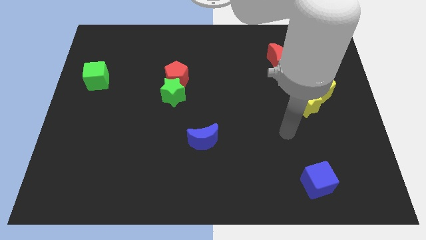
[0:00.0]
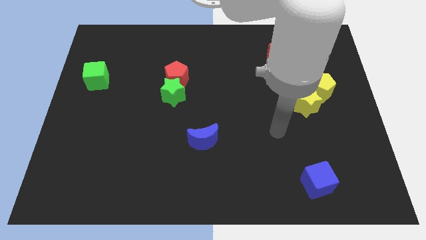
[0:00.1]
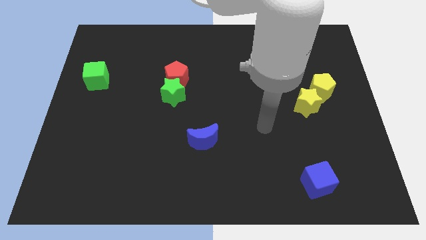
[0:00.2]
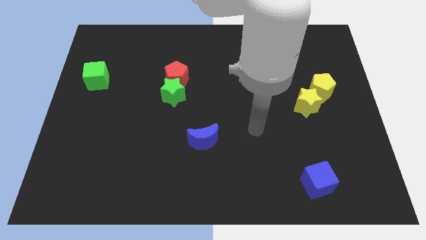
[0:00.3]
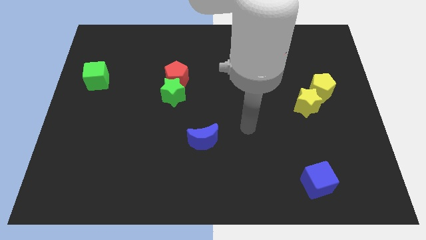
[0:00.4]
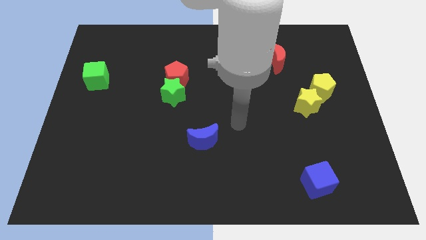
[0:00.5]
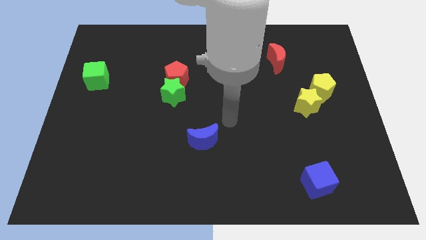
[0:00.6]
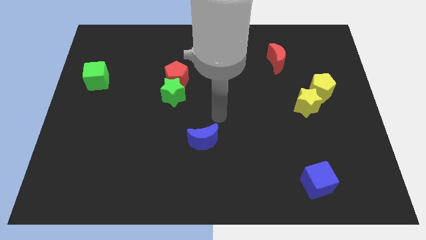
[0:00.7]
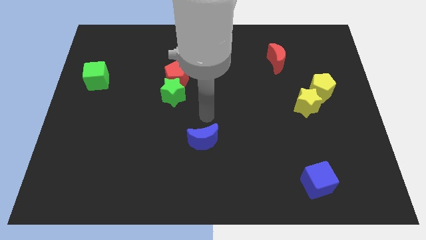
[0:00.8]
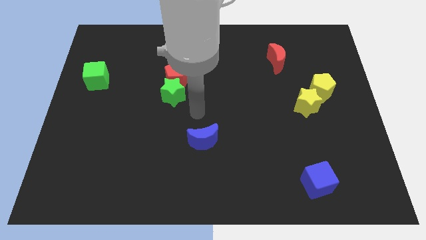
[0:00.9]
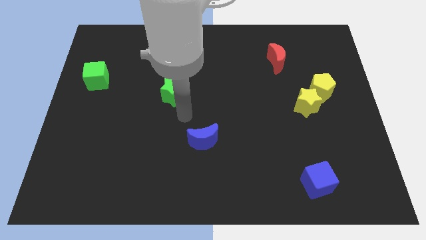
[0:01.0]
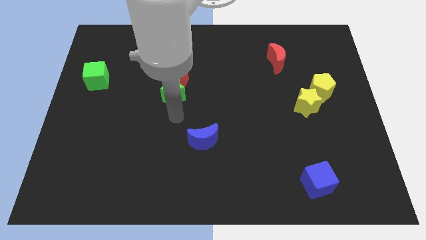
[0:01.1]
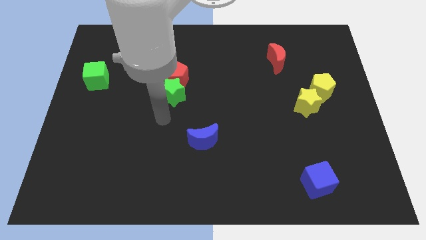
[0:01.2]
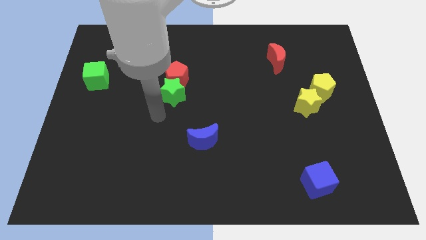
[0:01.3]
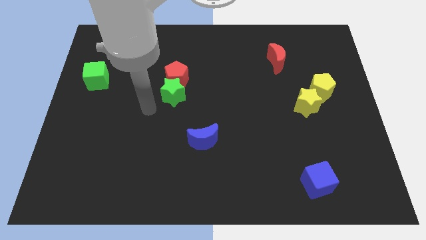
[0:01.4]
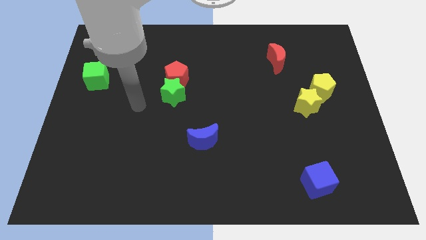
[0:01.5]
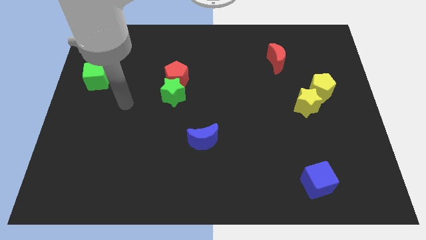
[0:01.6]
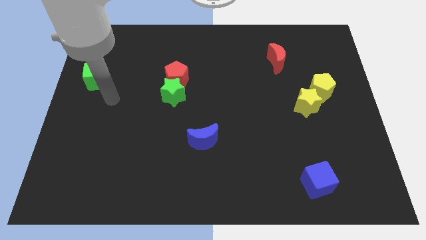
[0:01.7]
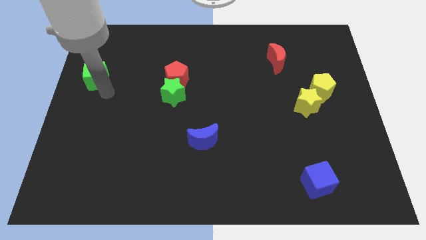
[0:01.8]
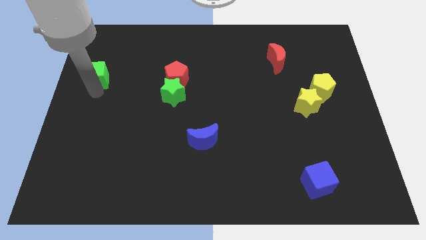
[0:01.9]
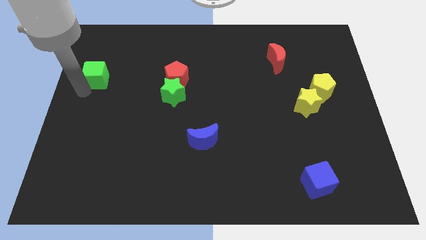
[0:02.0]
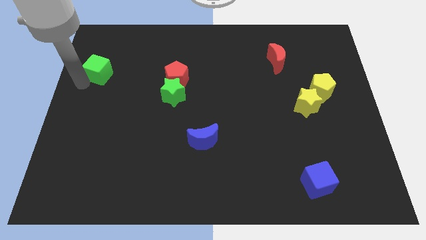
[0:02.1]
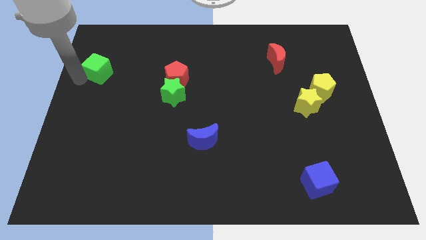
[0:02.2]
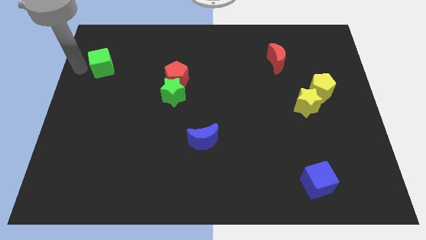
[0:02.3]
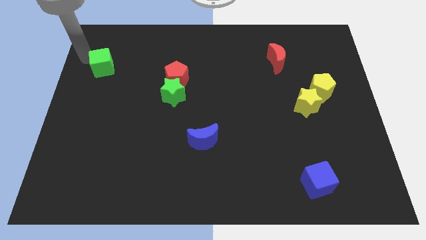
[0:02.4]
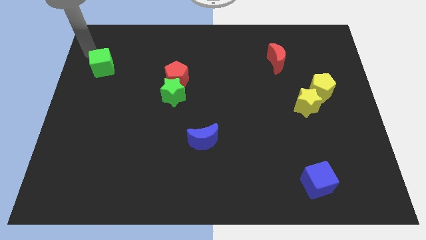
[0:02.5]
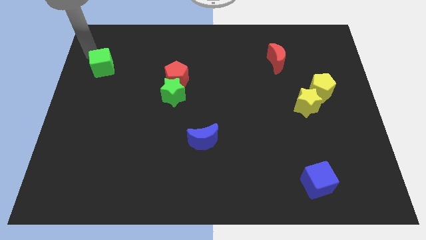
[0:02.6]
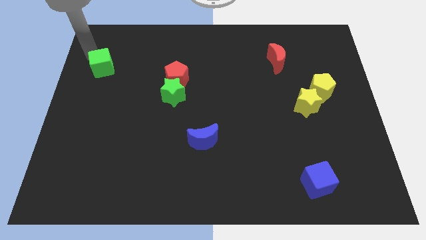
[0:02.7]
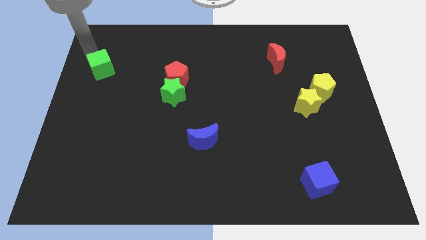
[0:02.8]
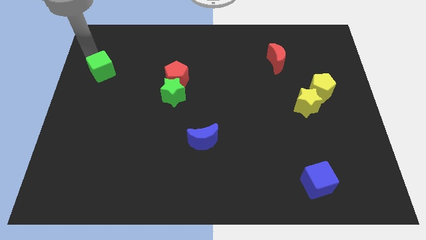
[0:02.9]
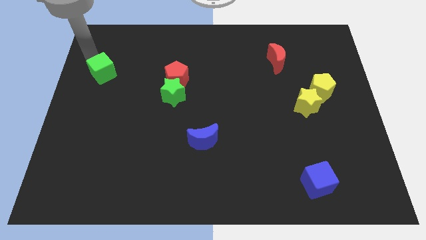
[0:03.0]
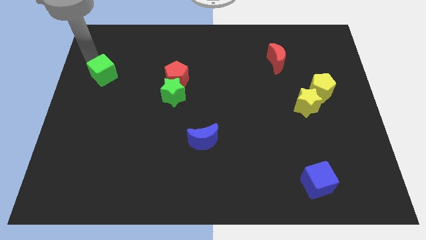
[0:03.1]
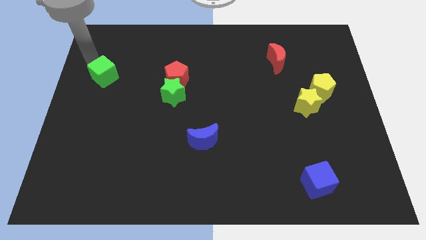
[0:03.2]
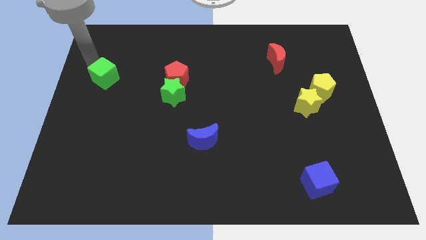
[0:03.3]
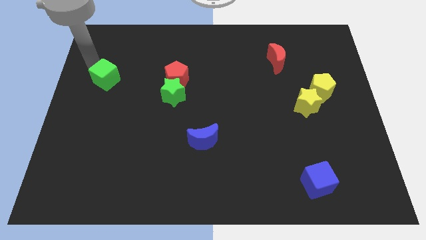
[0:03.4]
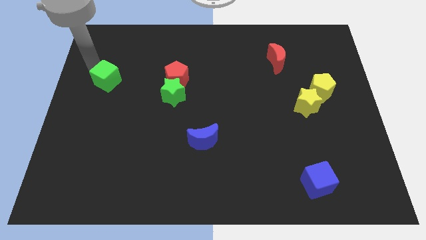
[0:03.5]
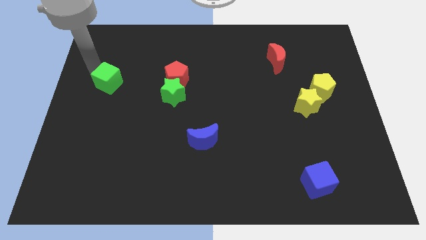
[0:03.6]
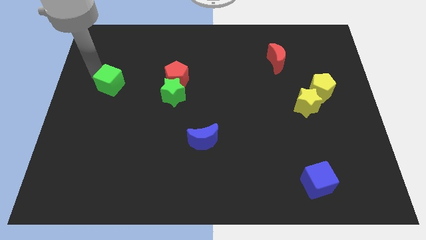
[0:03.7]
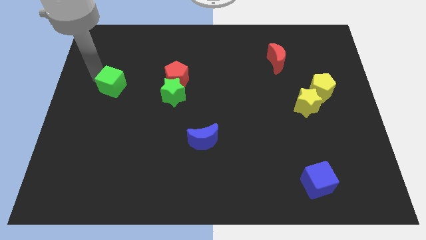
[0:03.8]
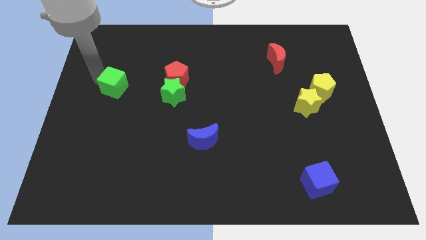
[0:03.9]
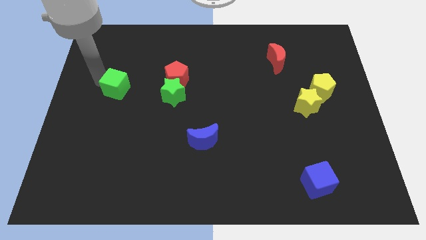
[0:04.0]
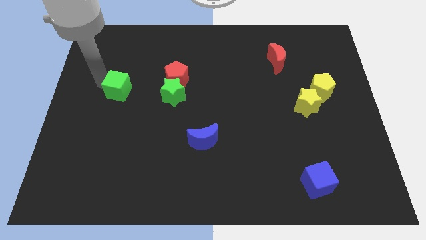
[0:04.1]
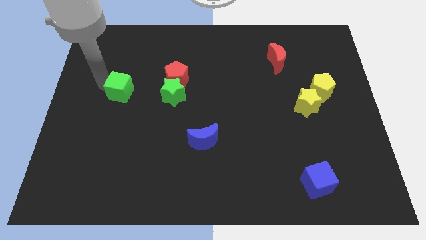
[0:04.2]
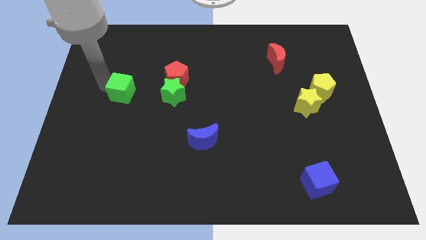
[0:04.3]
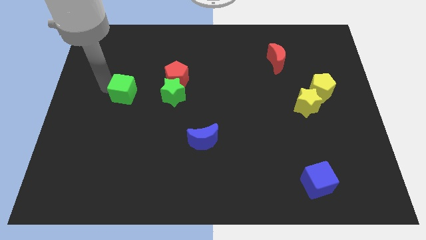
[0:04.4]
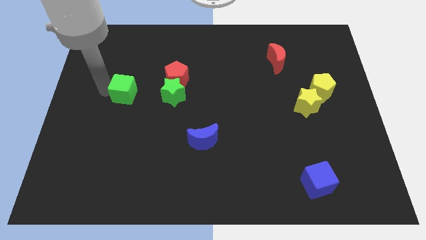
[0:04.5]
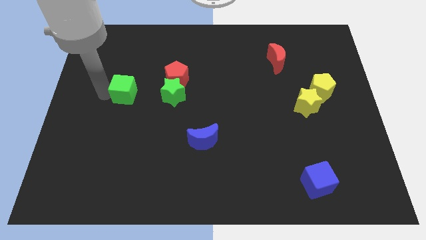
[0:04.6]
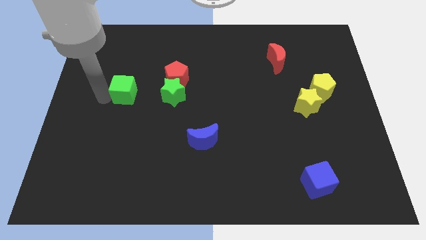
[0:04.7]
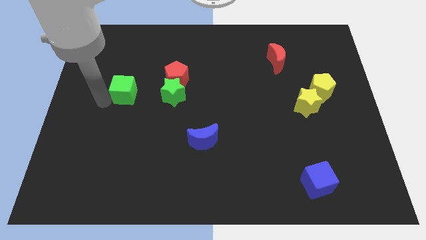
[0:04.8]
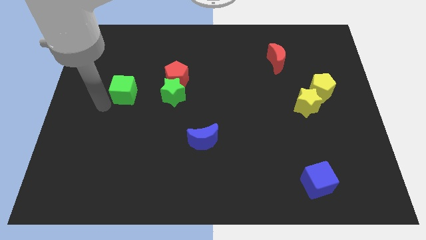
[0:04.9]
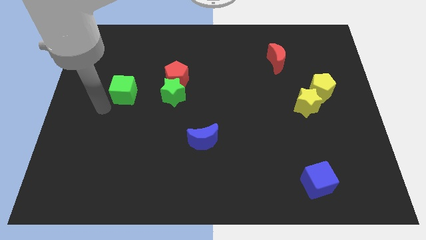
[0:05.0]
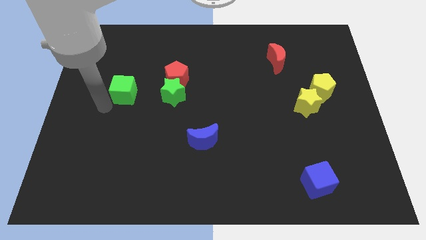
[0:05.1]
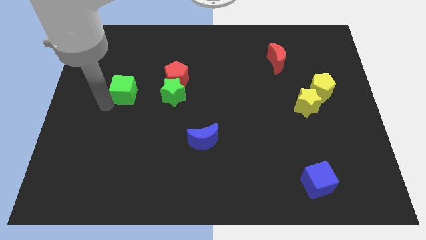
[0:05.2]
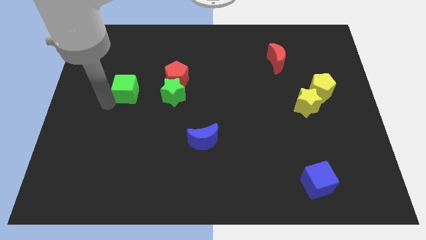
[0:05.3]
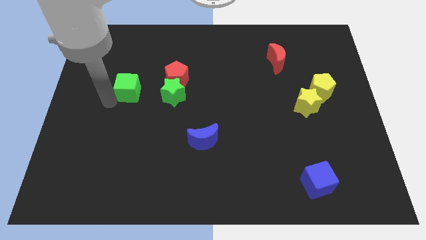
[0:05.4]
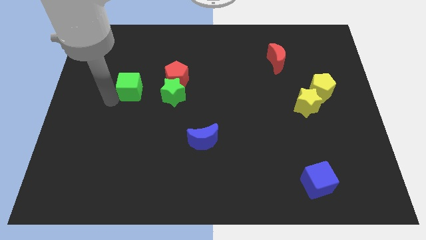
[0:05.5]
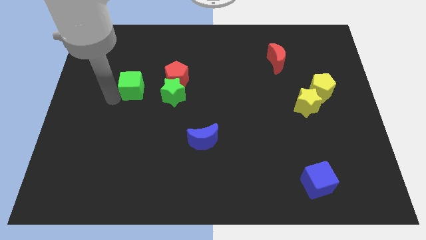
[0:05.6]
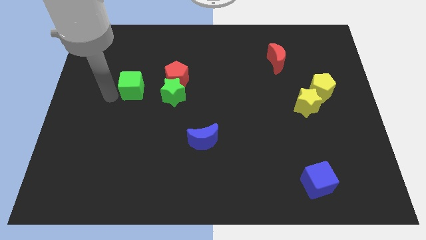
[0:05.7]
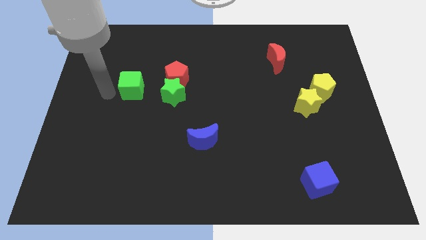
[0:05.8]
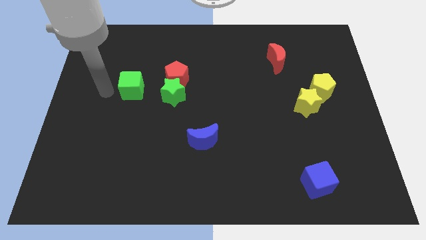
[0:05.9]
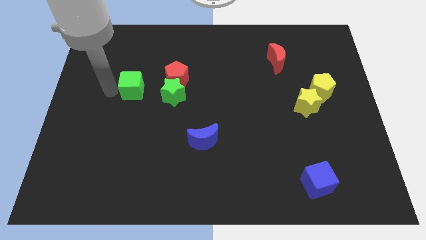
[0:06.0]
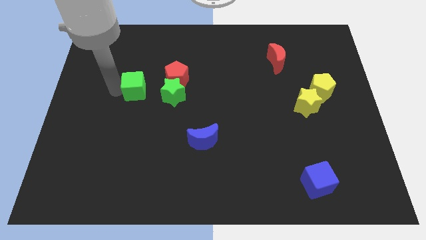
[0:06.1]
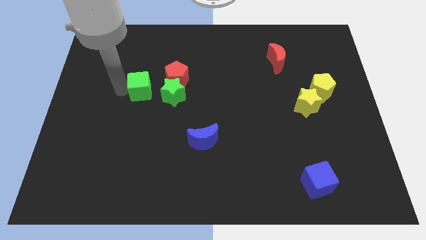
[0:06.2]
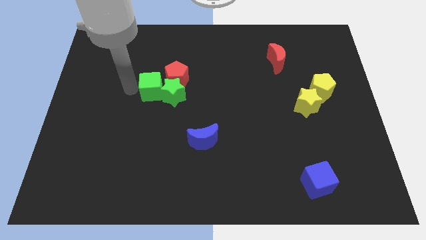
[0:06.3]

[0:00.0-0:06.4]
slide the green cube close to the green star

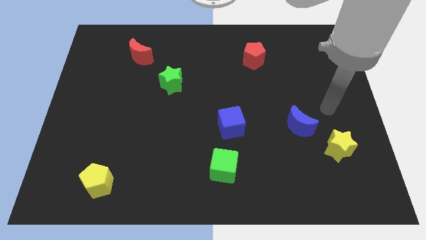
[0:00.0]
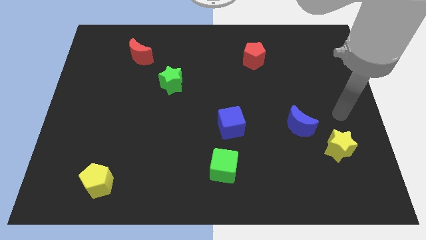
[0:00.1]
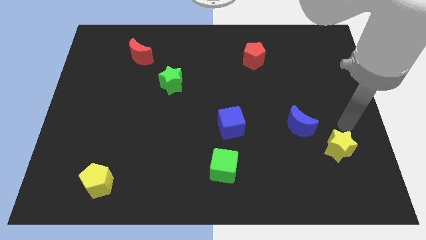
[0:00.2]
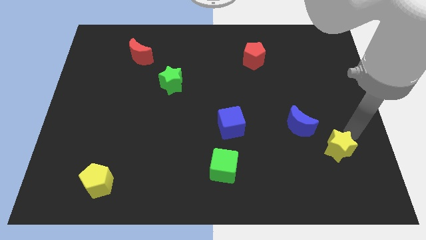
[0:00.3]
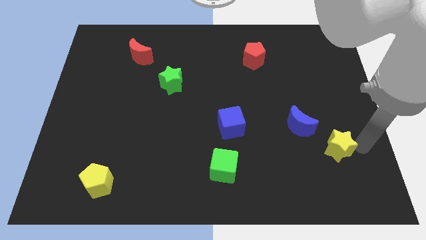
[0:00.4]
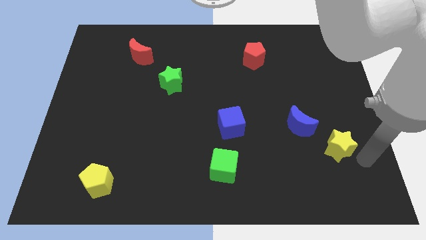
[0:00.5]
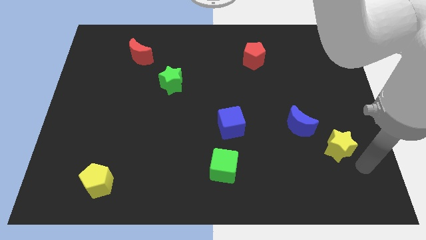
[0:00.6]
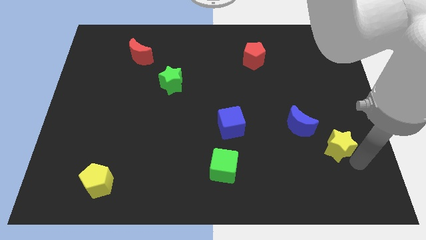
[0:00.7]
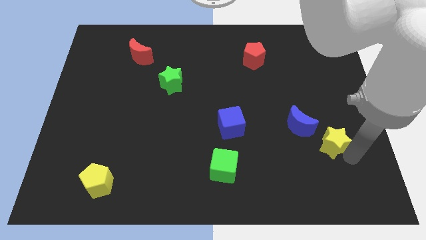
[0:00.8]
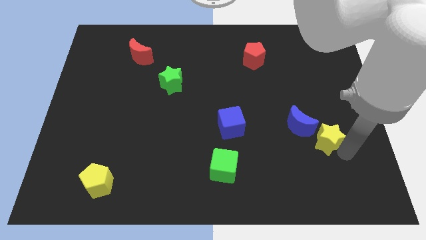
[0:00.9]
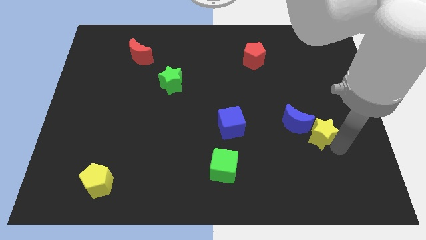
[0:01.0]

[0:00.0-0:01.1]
put the yellow star close to the blue moon
